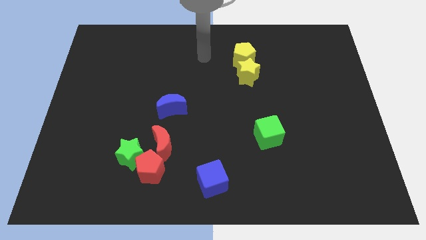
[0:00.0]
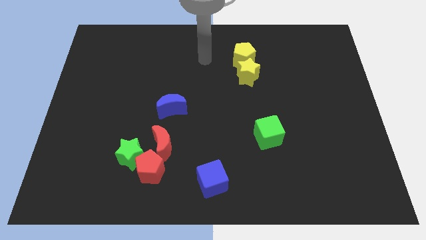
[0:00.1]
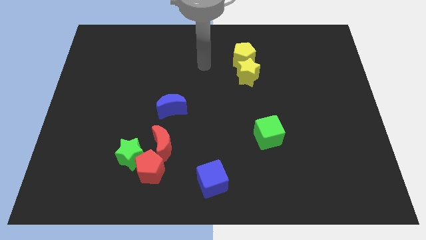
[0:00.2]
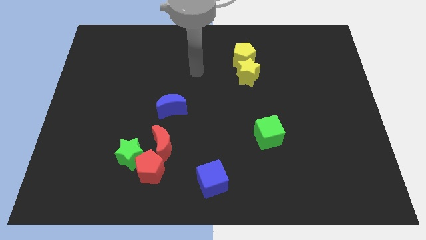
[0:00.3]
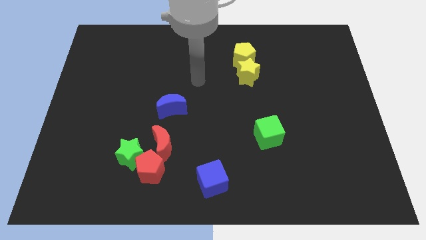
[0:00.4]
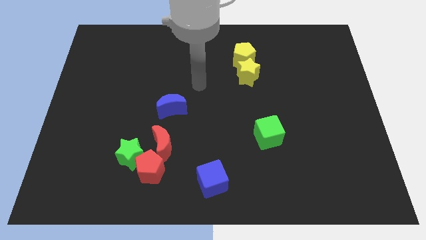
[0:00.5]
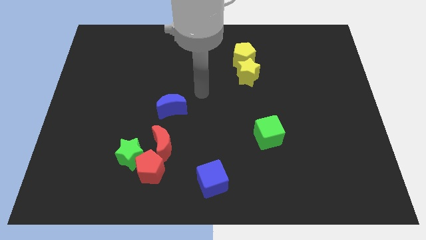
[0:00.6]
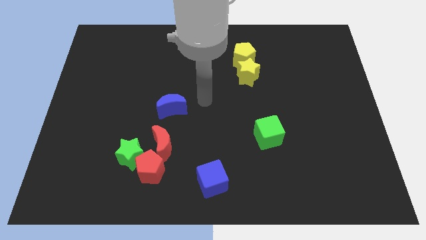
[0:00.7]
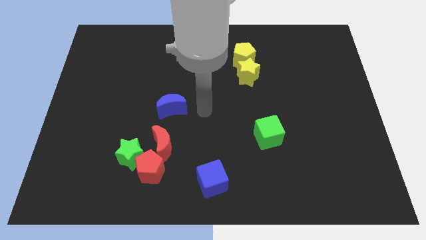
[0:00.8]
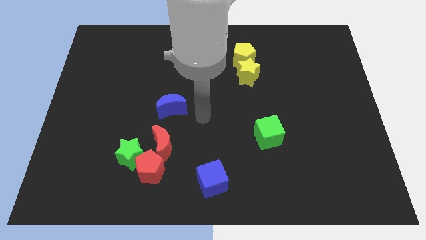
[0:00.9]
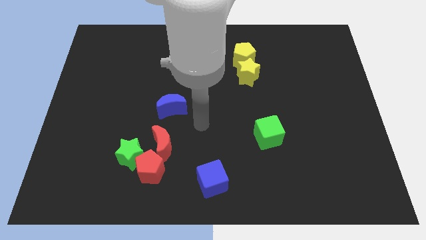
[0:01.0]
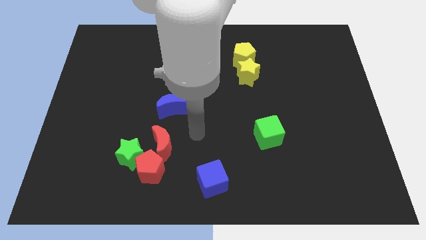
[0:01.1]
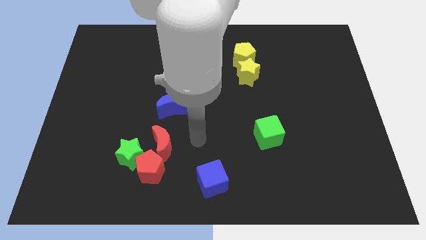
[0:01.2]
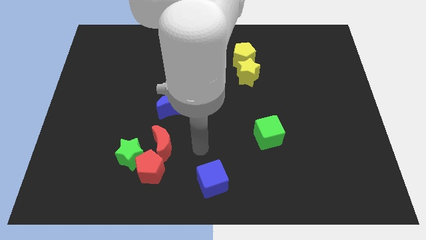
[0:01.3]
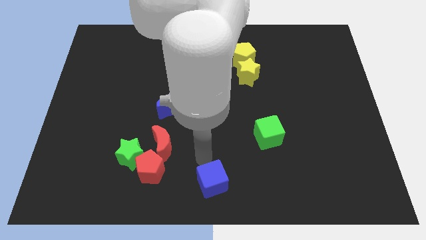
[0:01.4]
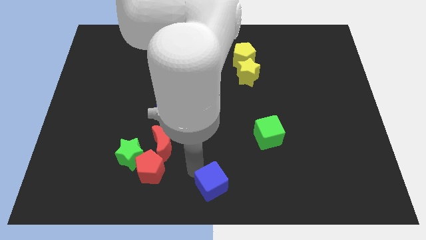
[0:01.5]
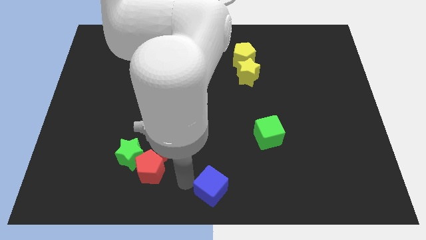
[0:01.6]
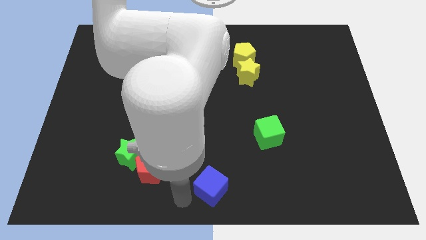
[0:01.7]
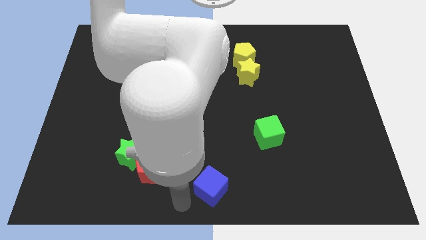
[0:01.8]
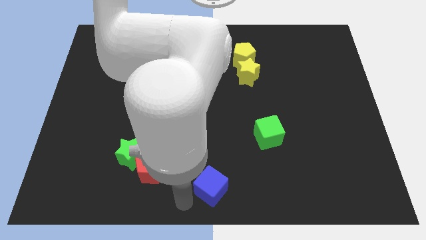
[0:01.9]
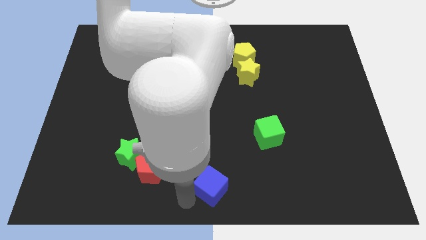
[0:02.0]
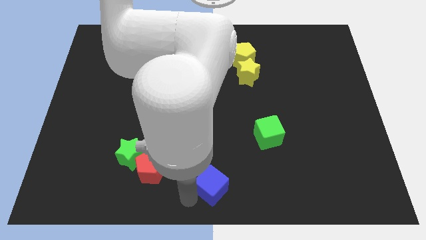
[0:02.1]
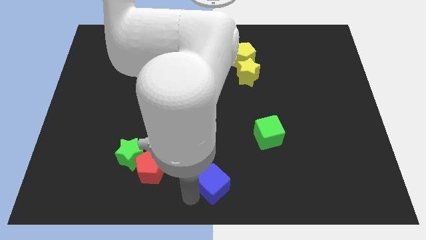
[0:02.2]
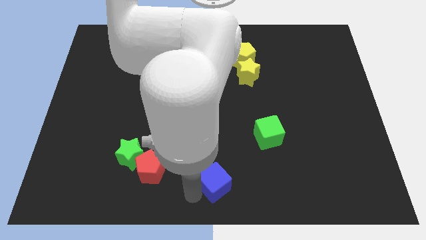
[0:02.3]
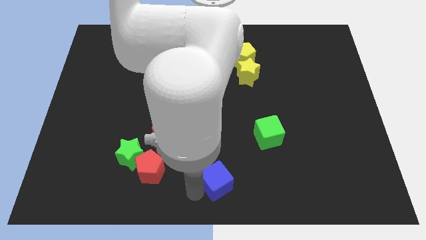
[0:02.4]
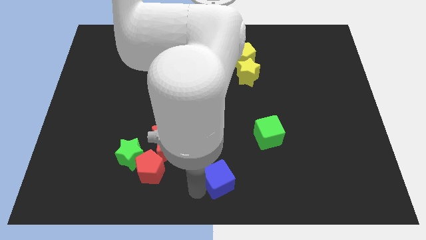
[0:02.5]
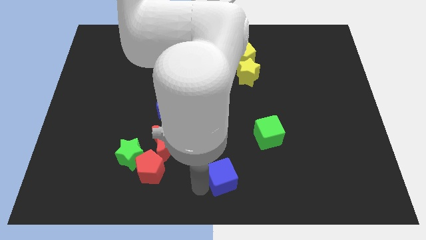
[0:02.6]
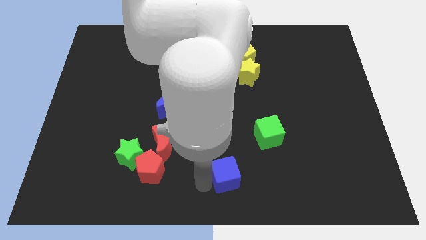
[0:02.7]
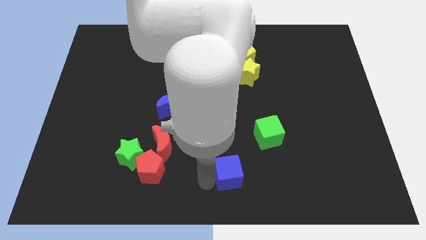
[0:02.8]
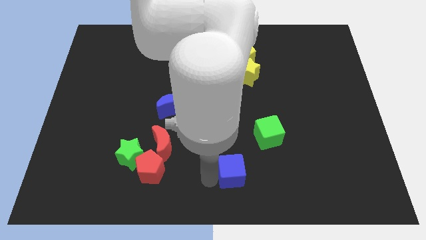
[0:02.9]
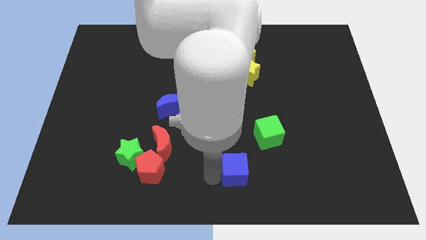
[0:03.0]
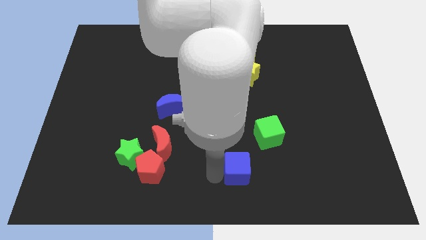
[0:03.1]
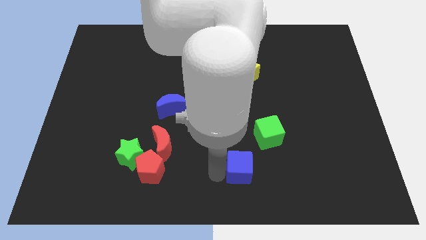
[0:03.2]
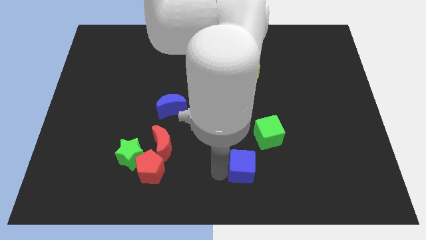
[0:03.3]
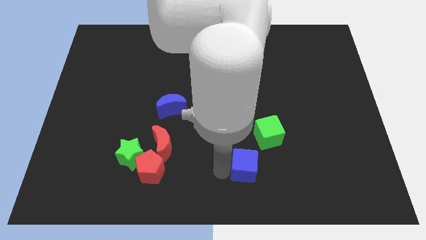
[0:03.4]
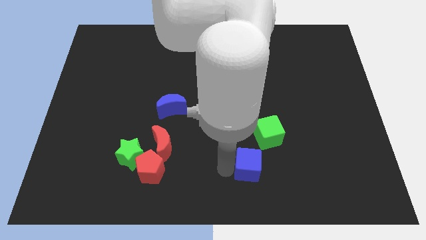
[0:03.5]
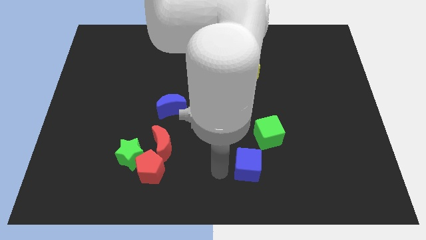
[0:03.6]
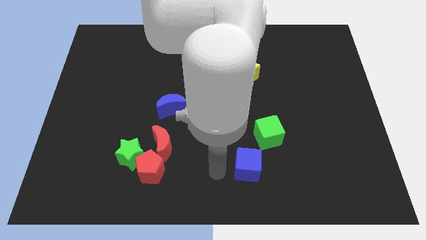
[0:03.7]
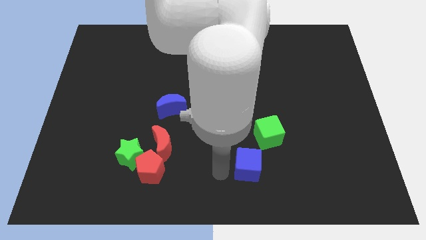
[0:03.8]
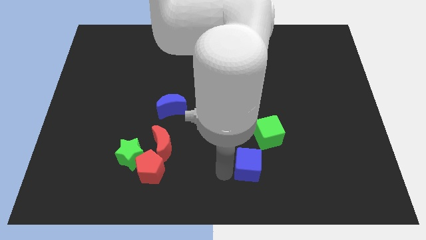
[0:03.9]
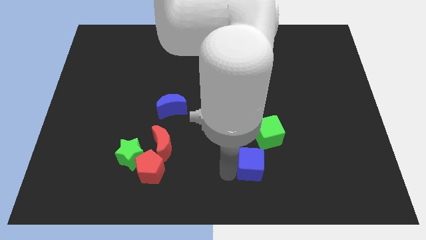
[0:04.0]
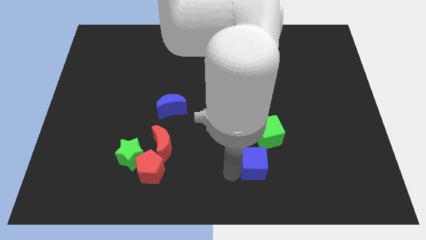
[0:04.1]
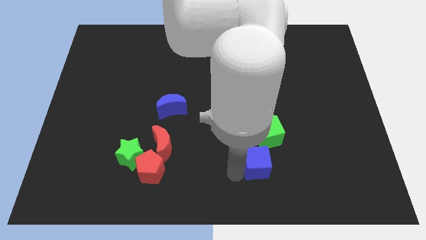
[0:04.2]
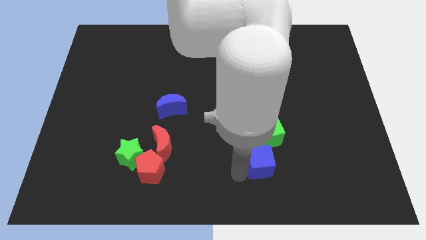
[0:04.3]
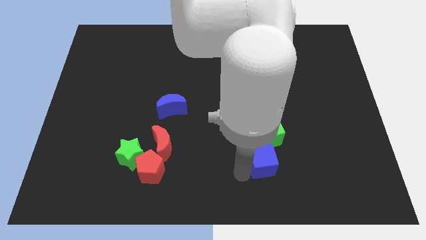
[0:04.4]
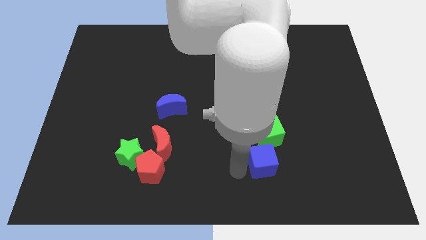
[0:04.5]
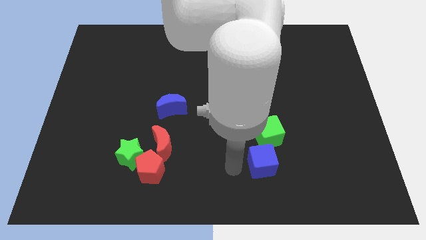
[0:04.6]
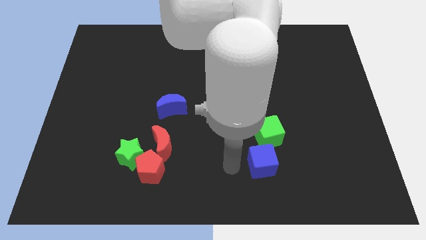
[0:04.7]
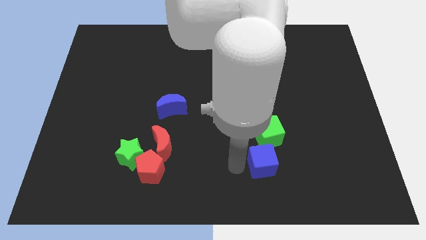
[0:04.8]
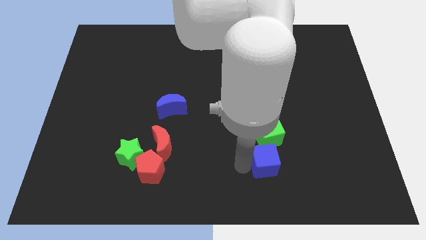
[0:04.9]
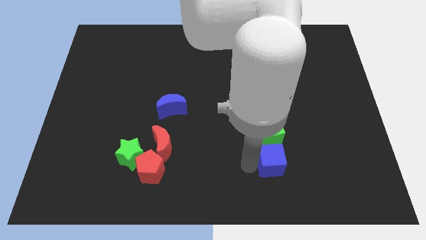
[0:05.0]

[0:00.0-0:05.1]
put the blue cube to the bottom right of the green cube

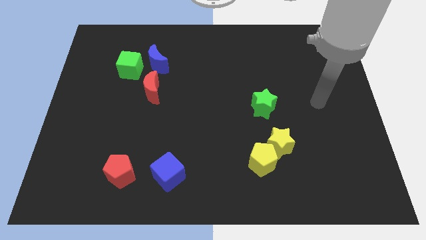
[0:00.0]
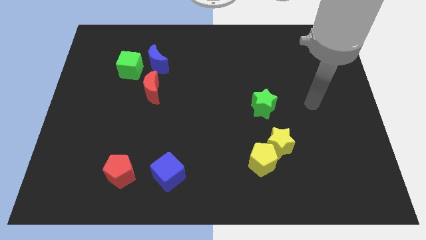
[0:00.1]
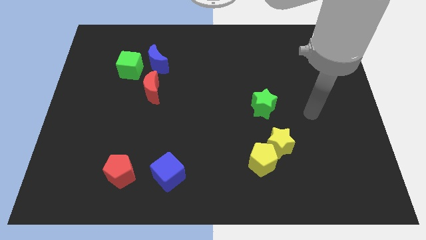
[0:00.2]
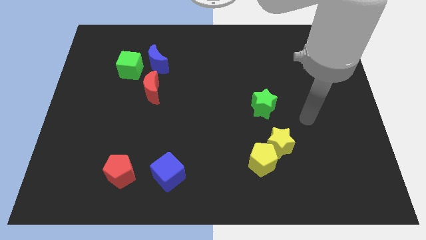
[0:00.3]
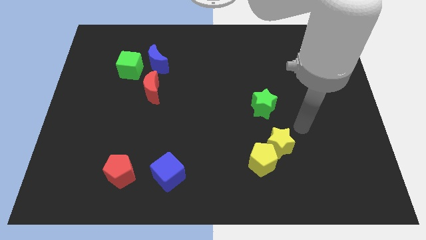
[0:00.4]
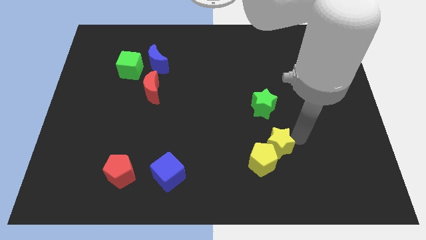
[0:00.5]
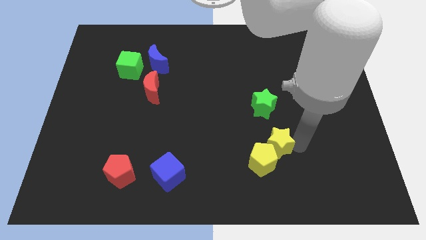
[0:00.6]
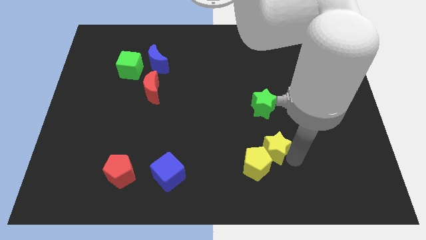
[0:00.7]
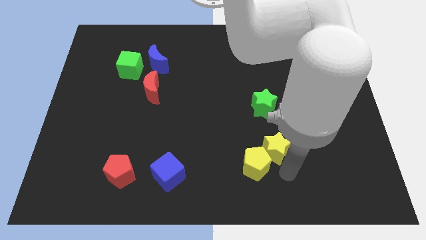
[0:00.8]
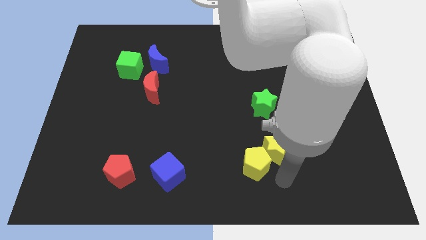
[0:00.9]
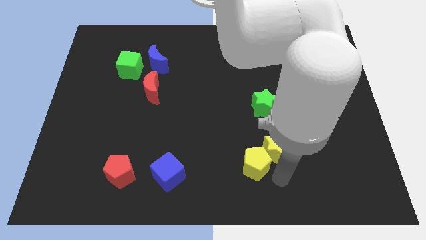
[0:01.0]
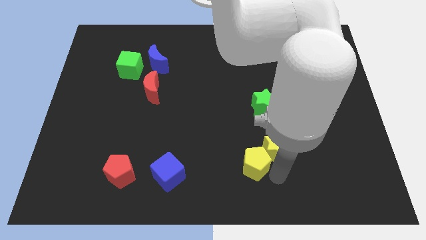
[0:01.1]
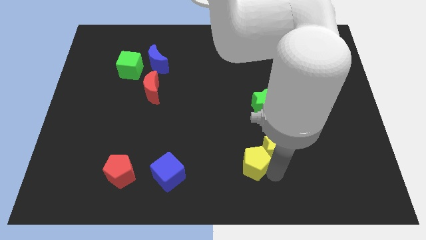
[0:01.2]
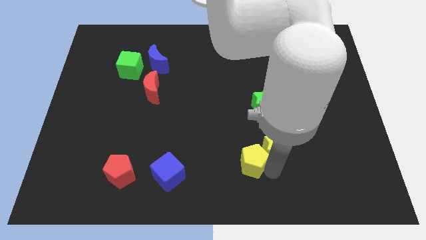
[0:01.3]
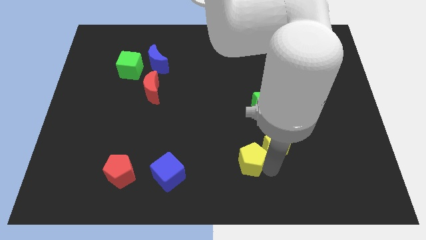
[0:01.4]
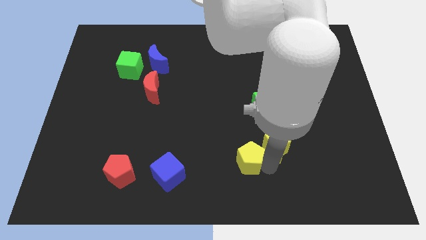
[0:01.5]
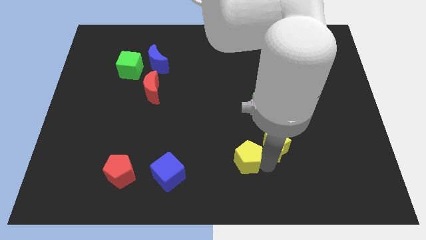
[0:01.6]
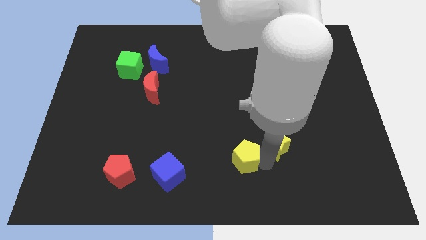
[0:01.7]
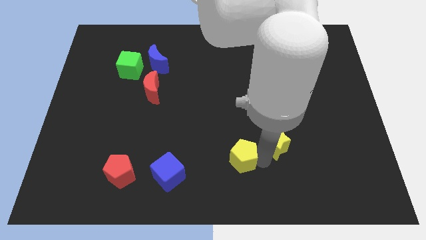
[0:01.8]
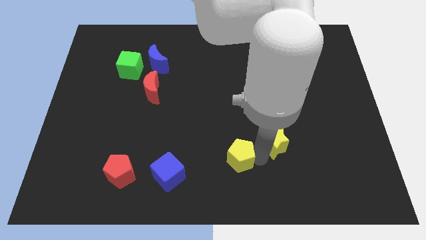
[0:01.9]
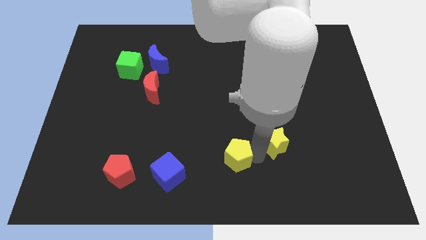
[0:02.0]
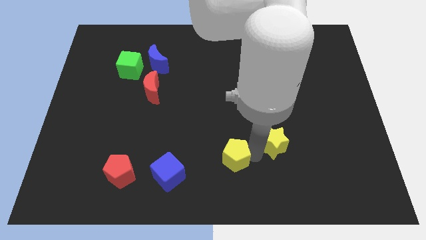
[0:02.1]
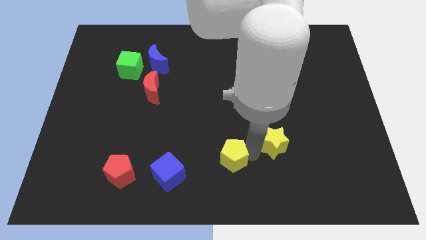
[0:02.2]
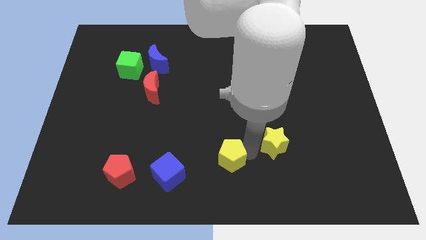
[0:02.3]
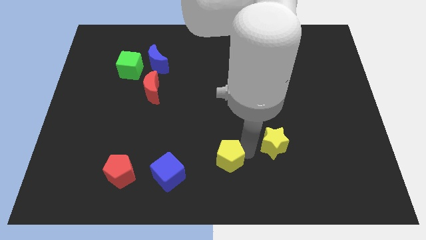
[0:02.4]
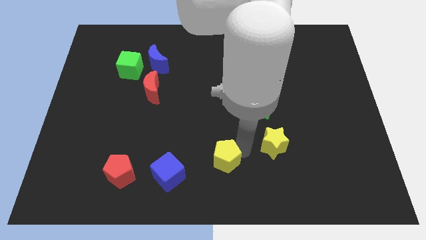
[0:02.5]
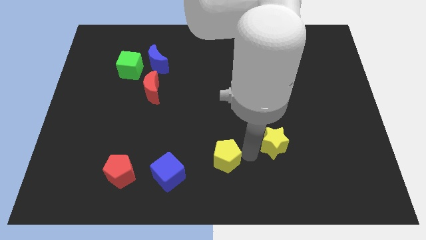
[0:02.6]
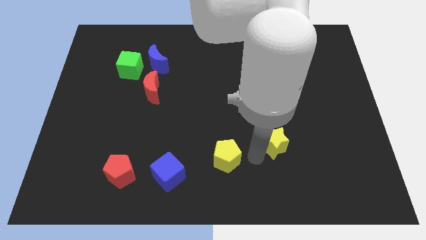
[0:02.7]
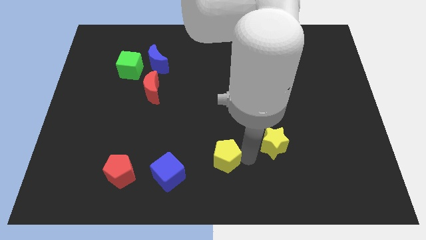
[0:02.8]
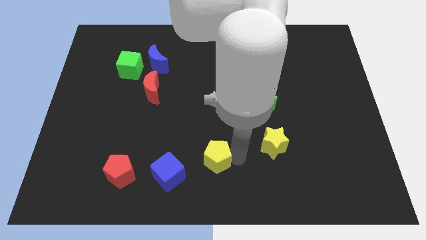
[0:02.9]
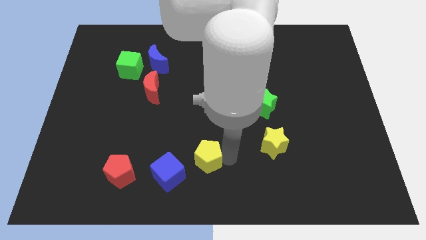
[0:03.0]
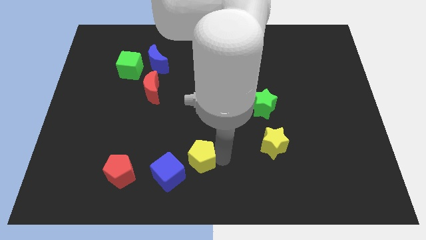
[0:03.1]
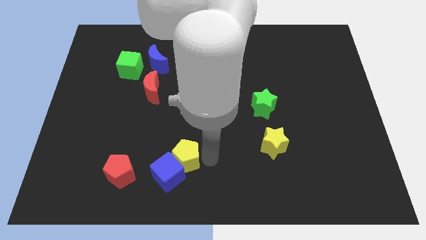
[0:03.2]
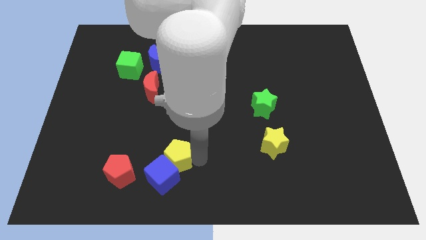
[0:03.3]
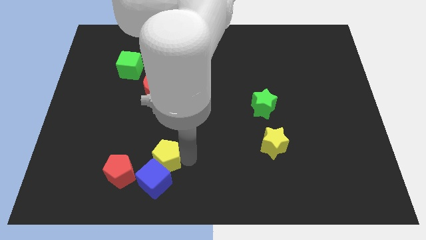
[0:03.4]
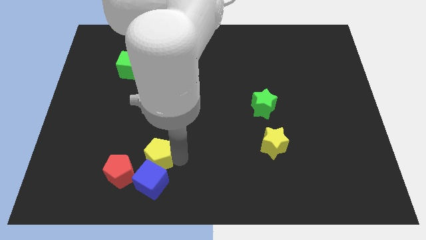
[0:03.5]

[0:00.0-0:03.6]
put the yellow pentagon to the top left of the blue cube
